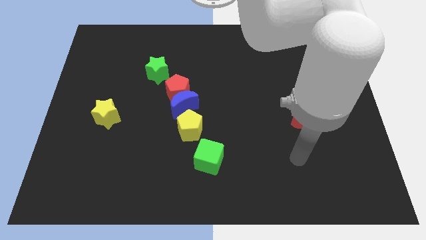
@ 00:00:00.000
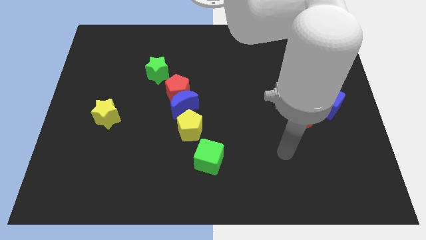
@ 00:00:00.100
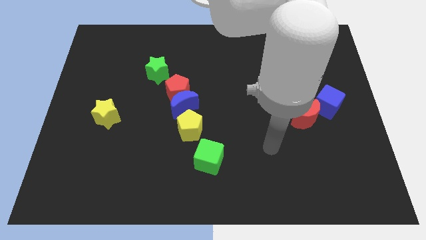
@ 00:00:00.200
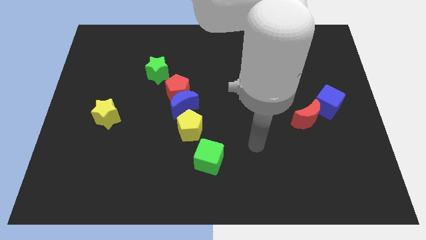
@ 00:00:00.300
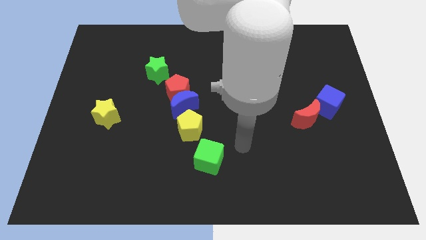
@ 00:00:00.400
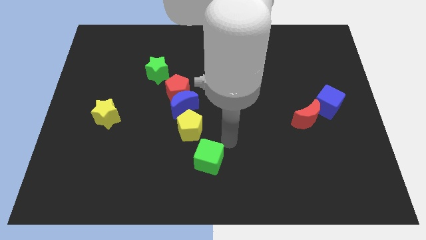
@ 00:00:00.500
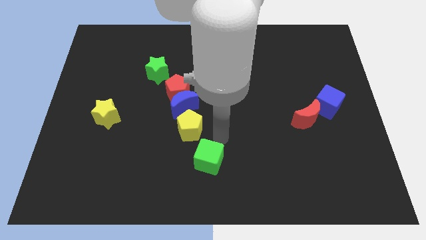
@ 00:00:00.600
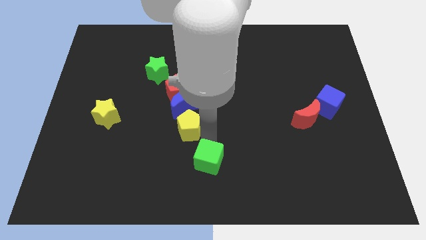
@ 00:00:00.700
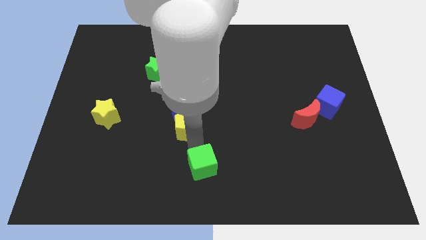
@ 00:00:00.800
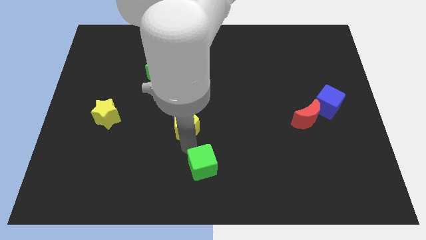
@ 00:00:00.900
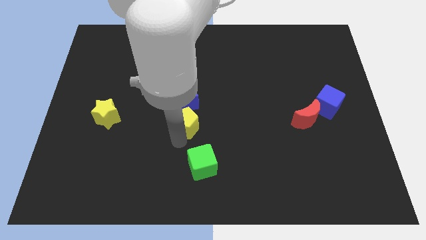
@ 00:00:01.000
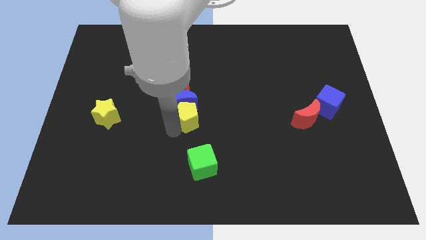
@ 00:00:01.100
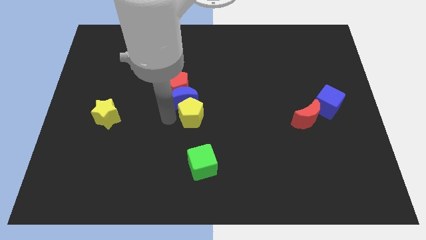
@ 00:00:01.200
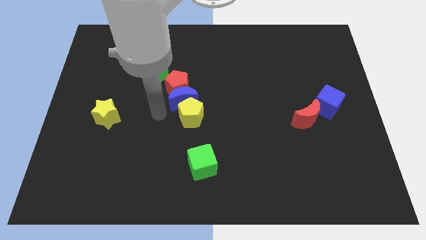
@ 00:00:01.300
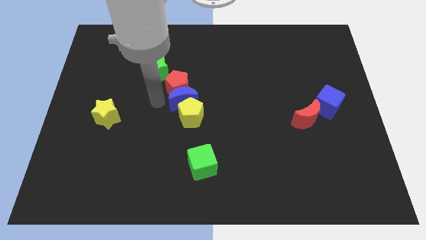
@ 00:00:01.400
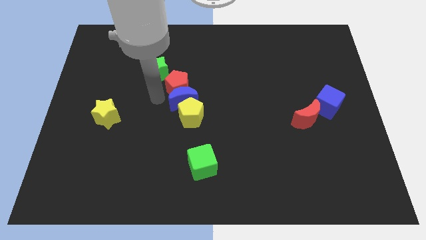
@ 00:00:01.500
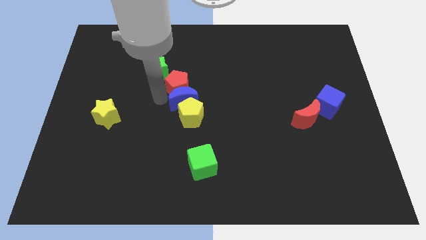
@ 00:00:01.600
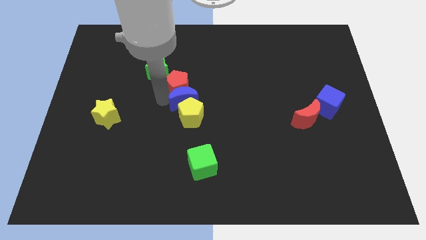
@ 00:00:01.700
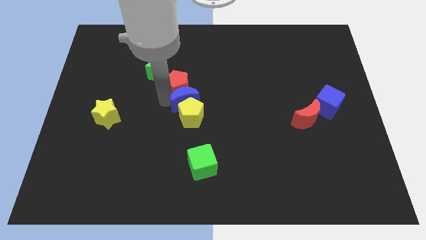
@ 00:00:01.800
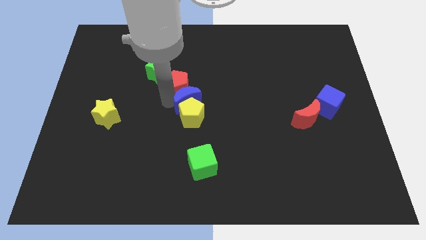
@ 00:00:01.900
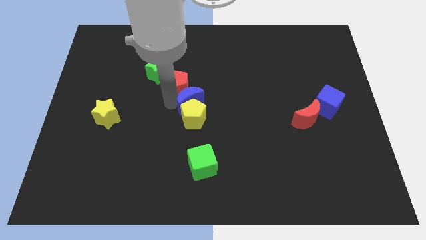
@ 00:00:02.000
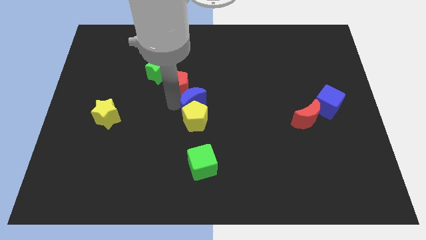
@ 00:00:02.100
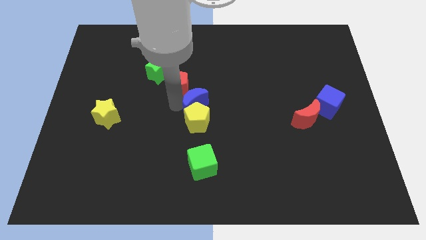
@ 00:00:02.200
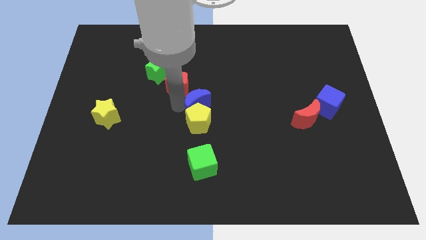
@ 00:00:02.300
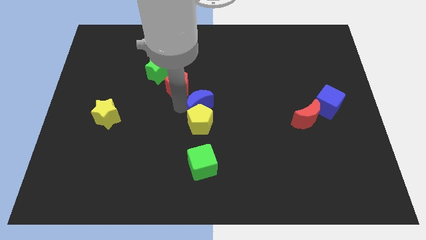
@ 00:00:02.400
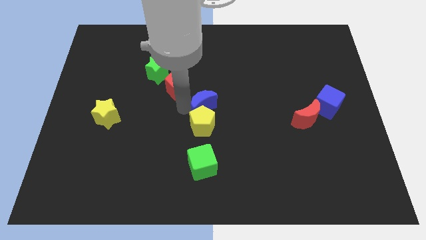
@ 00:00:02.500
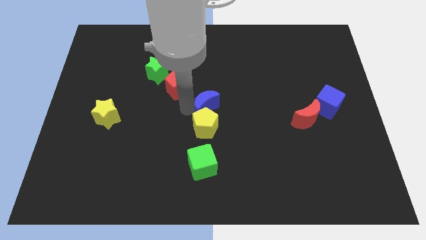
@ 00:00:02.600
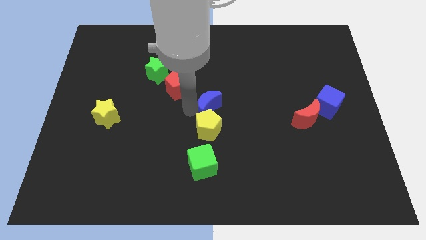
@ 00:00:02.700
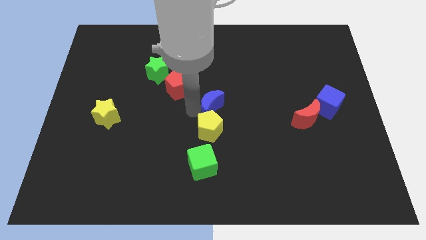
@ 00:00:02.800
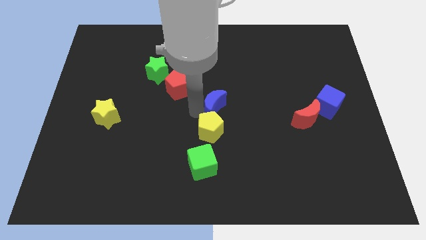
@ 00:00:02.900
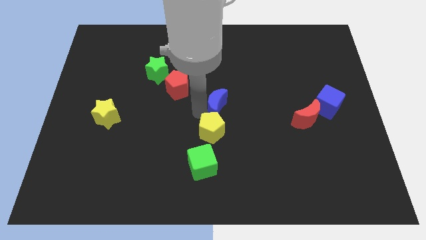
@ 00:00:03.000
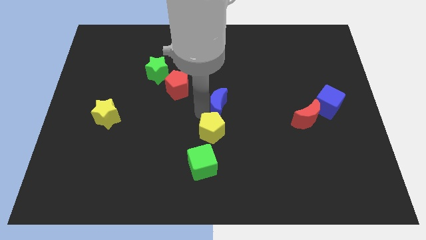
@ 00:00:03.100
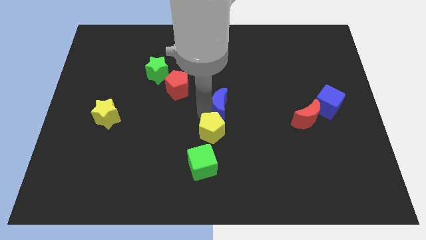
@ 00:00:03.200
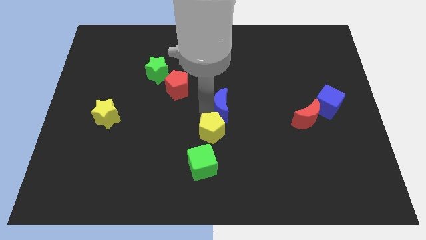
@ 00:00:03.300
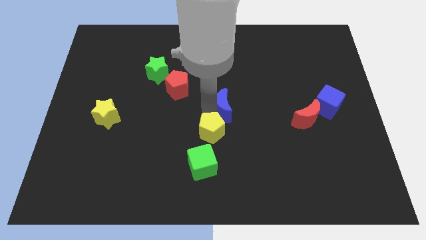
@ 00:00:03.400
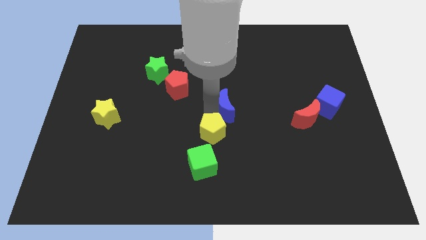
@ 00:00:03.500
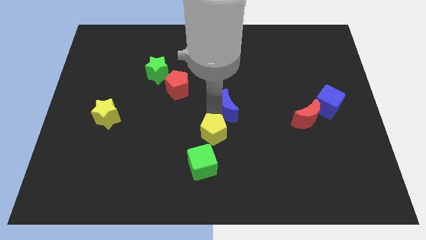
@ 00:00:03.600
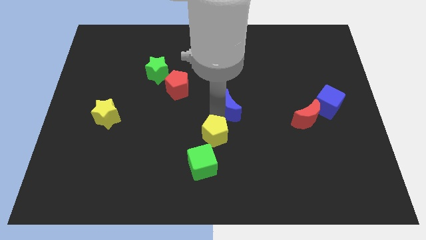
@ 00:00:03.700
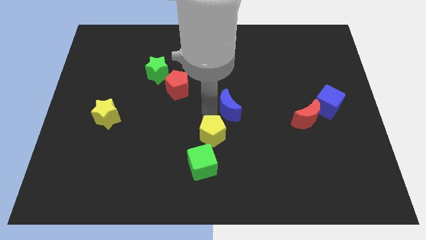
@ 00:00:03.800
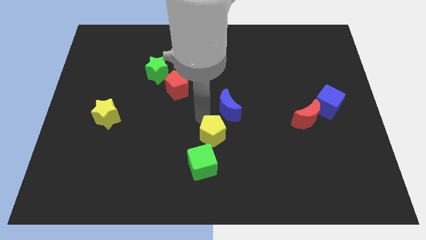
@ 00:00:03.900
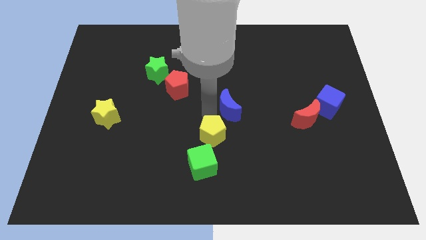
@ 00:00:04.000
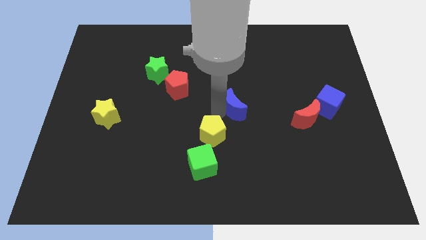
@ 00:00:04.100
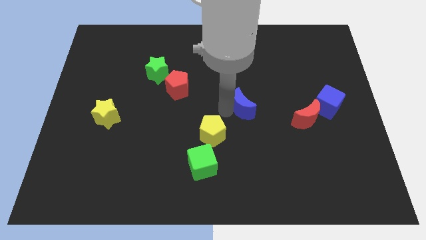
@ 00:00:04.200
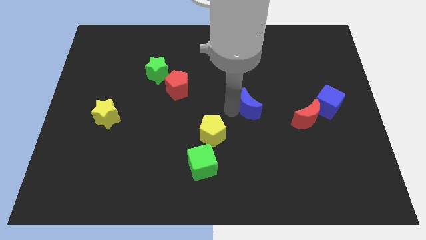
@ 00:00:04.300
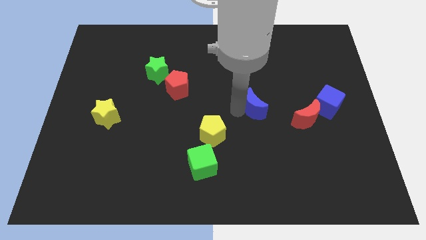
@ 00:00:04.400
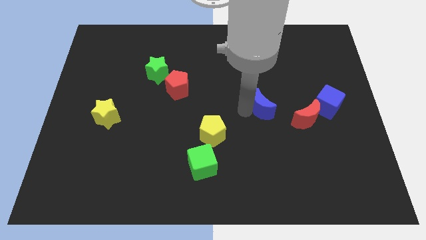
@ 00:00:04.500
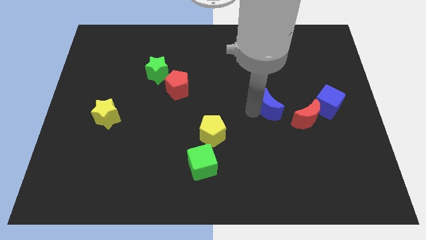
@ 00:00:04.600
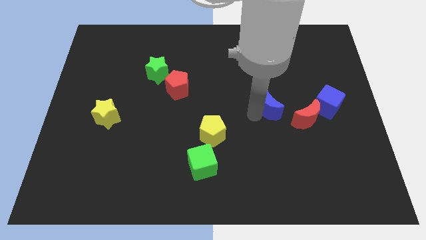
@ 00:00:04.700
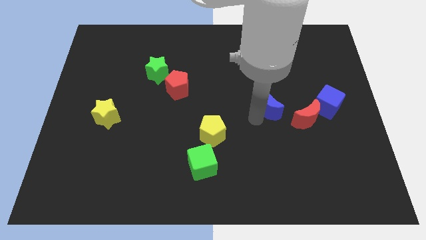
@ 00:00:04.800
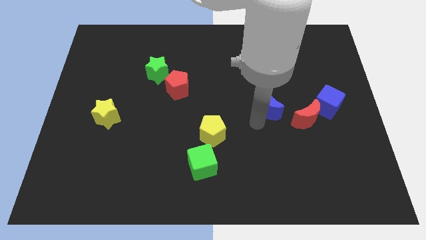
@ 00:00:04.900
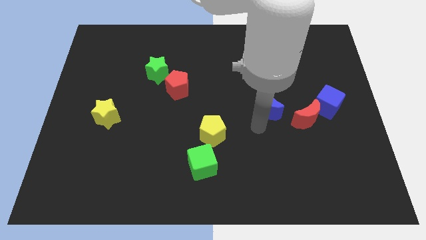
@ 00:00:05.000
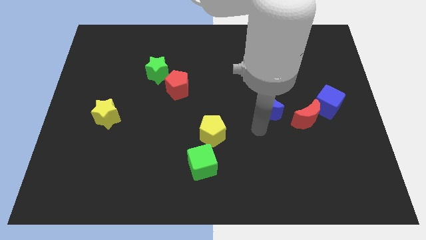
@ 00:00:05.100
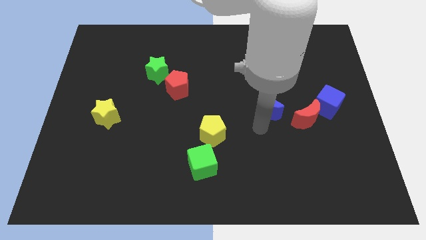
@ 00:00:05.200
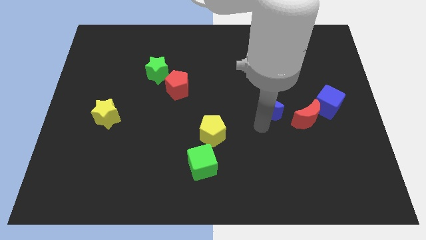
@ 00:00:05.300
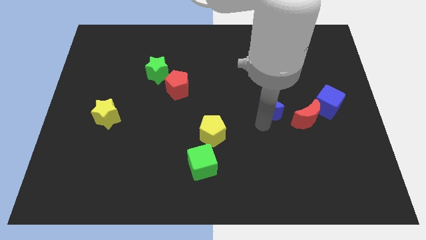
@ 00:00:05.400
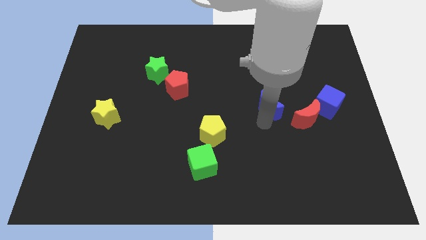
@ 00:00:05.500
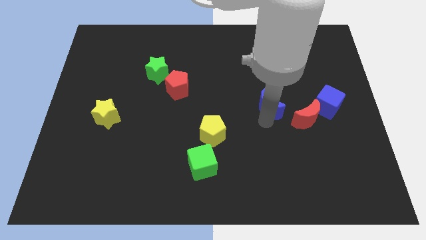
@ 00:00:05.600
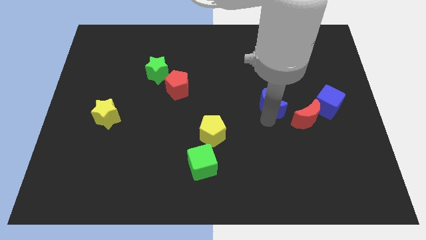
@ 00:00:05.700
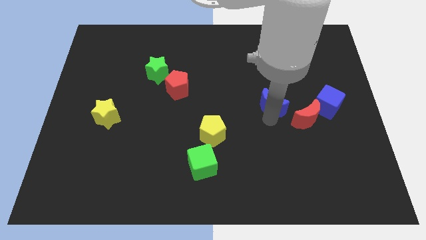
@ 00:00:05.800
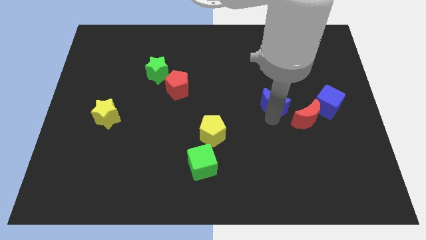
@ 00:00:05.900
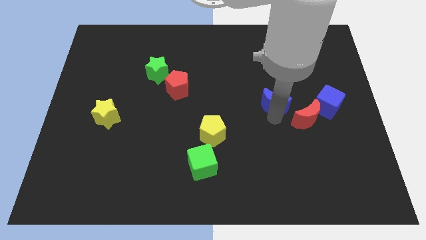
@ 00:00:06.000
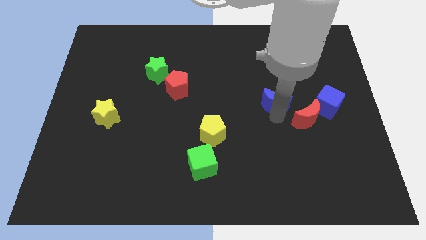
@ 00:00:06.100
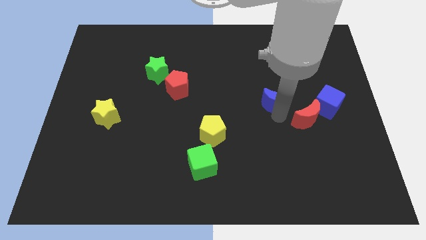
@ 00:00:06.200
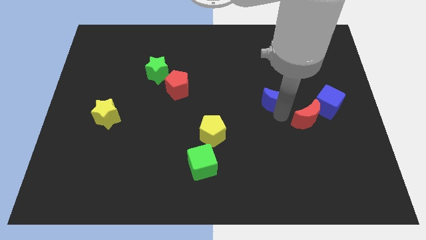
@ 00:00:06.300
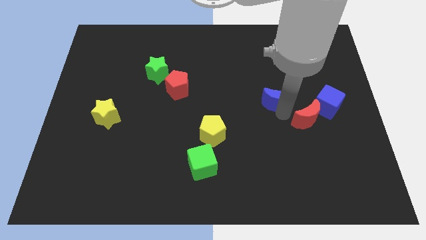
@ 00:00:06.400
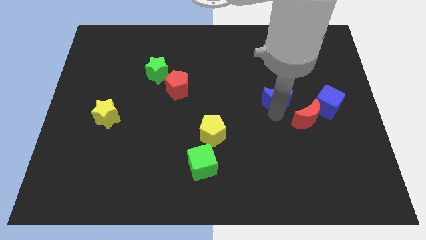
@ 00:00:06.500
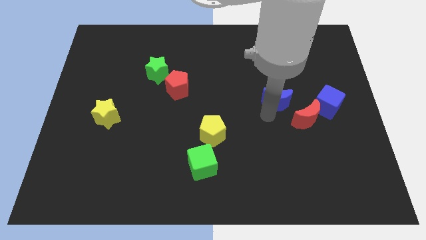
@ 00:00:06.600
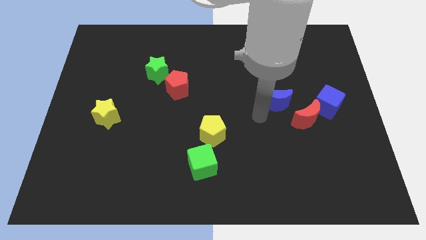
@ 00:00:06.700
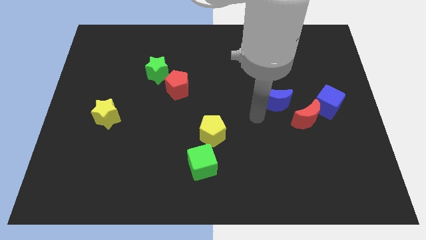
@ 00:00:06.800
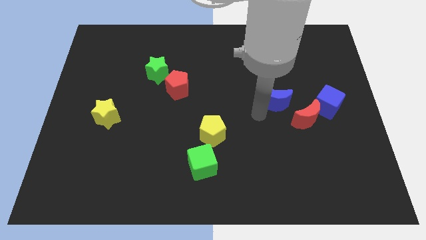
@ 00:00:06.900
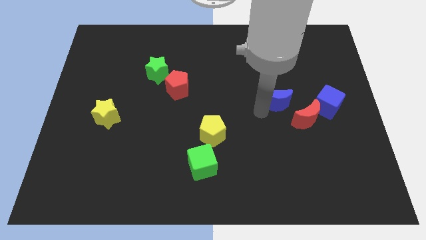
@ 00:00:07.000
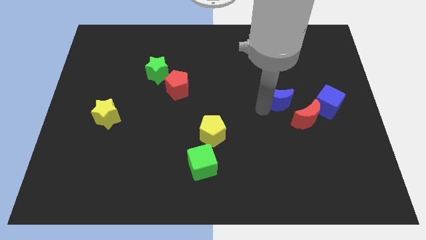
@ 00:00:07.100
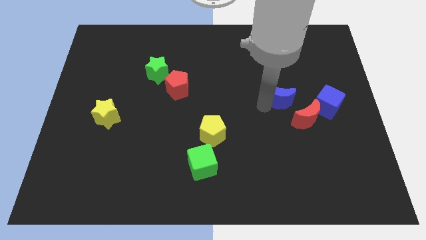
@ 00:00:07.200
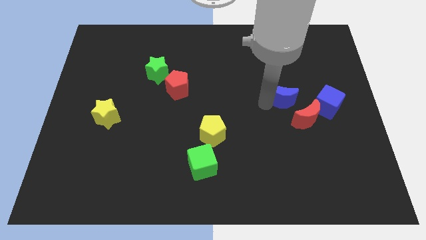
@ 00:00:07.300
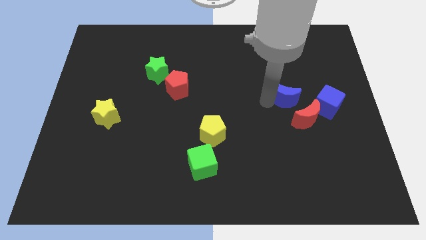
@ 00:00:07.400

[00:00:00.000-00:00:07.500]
put the blue moon above the red moon
